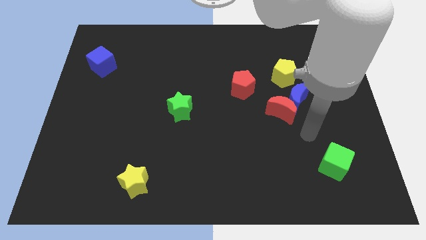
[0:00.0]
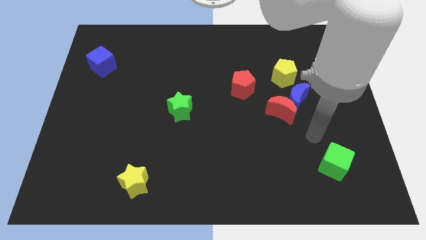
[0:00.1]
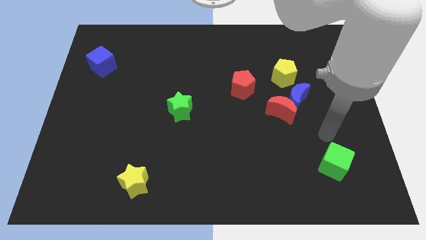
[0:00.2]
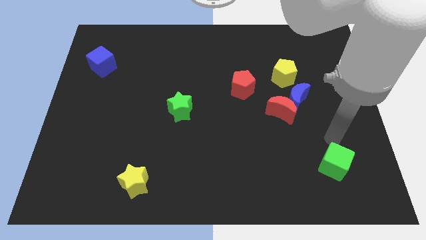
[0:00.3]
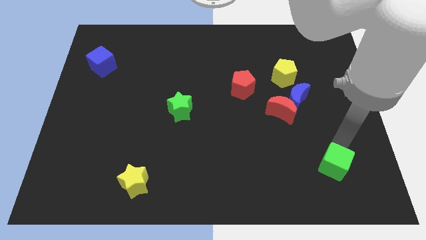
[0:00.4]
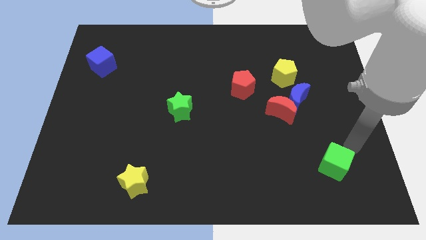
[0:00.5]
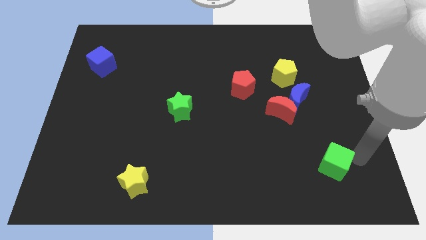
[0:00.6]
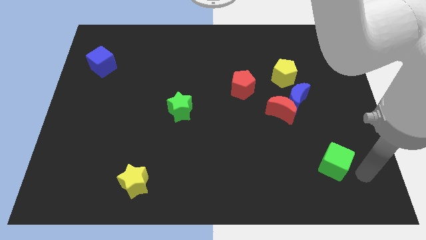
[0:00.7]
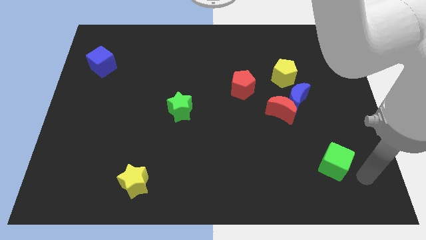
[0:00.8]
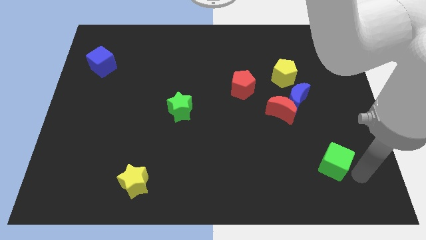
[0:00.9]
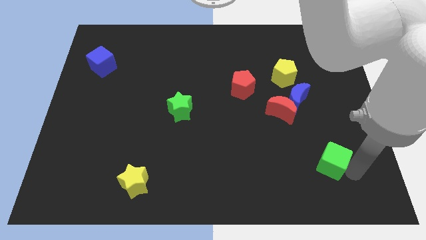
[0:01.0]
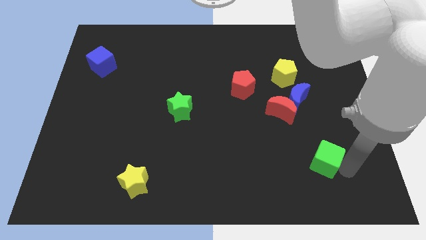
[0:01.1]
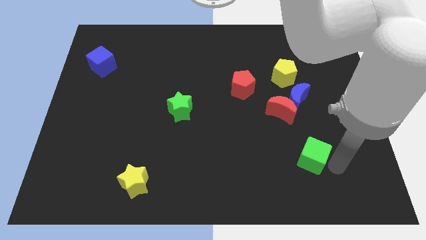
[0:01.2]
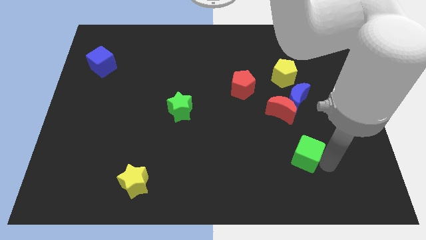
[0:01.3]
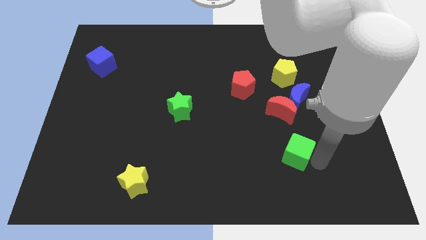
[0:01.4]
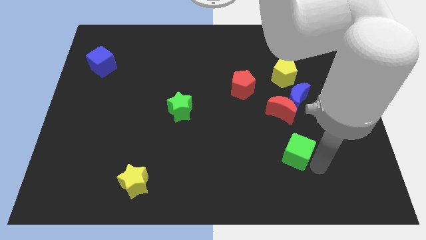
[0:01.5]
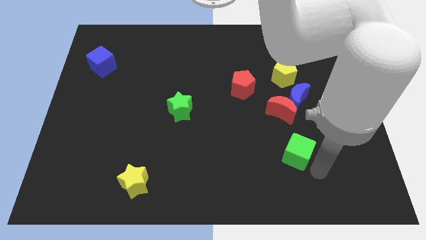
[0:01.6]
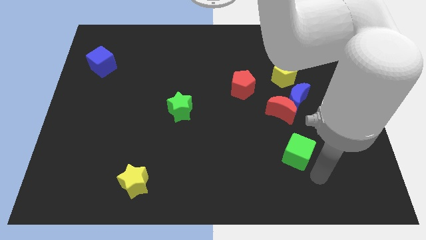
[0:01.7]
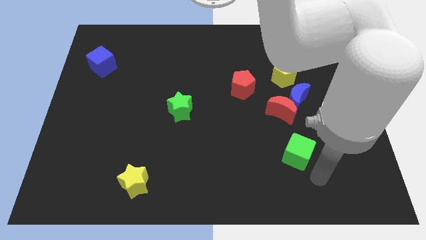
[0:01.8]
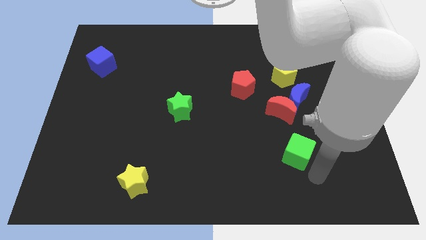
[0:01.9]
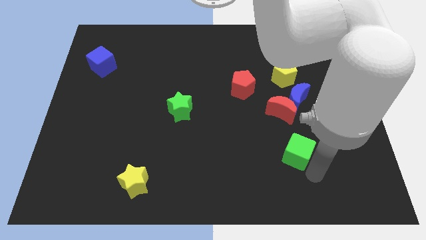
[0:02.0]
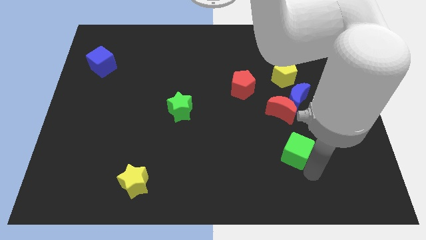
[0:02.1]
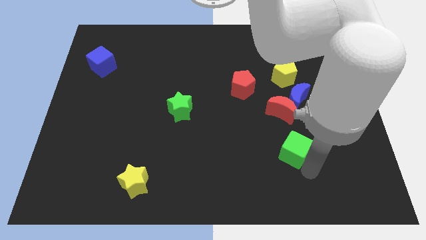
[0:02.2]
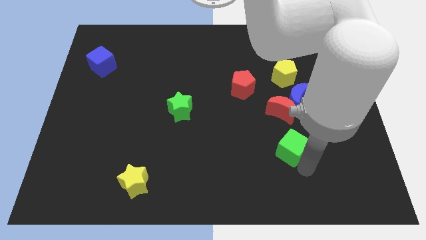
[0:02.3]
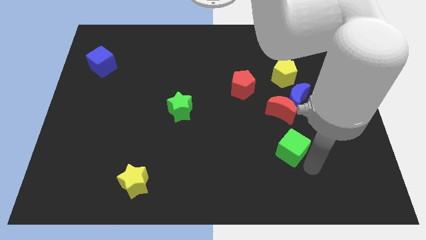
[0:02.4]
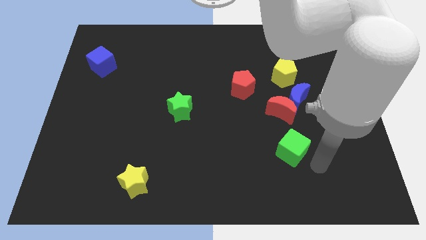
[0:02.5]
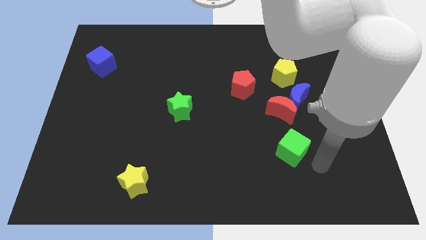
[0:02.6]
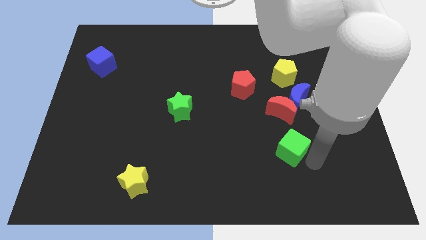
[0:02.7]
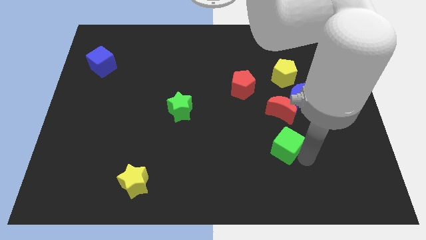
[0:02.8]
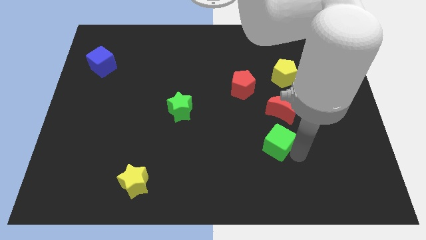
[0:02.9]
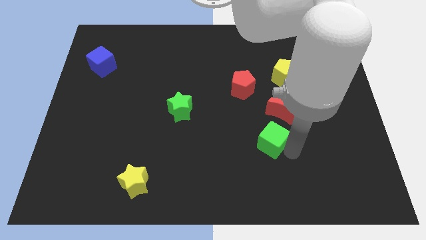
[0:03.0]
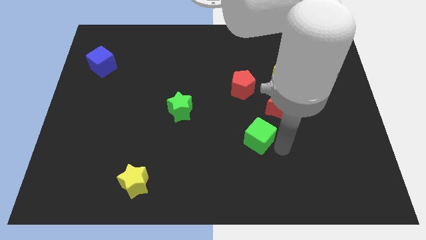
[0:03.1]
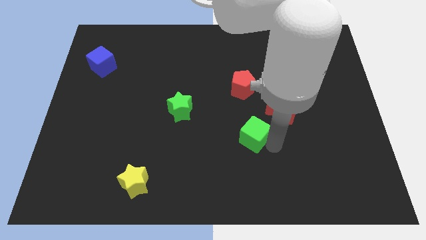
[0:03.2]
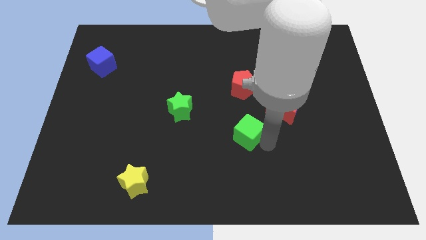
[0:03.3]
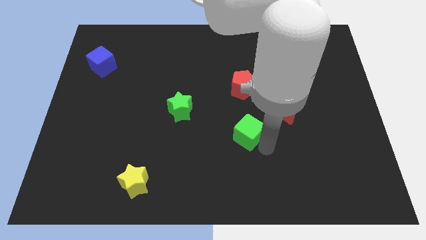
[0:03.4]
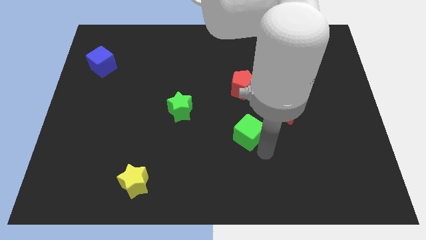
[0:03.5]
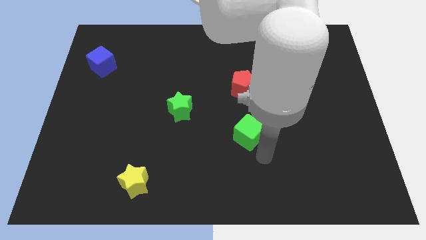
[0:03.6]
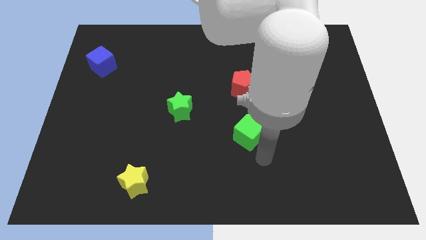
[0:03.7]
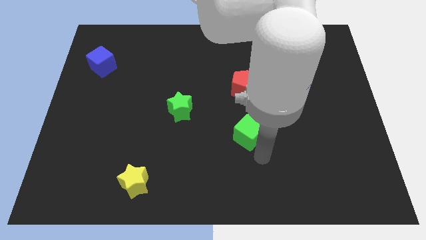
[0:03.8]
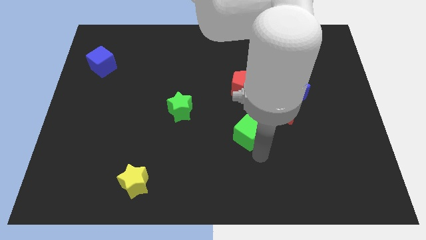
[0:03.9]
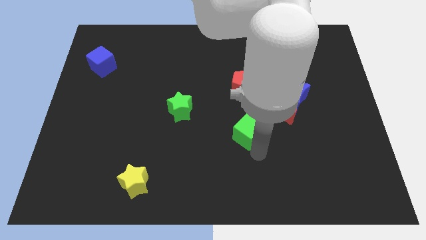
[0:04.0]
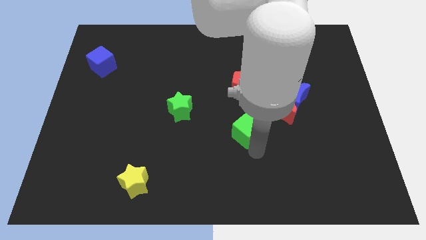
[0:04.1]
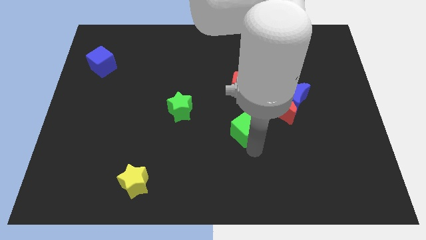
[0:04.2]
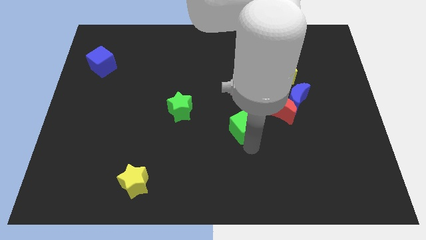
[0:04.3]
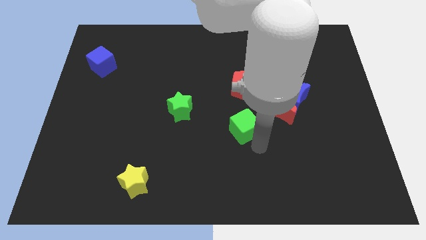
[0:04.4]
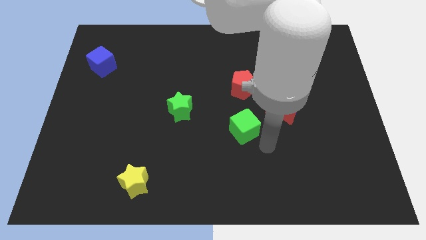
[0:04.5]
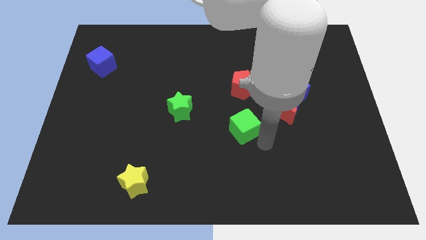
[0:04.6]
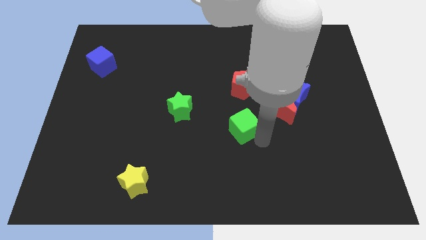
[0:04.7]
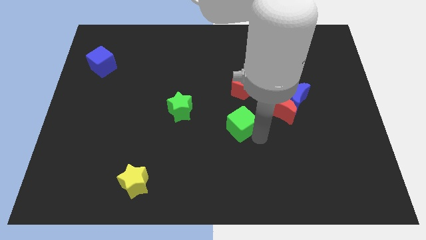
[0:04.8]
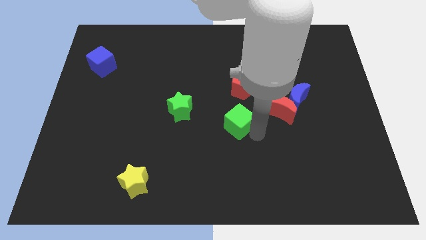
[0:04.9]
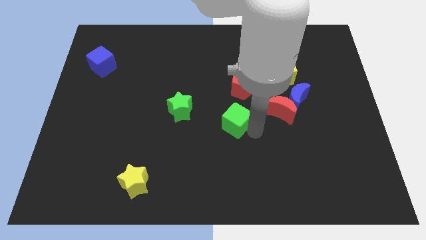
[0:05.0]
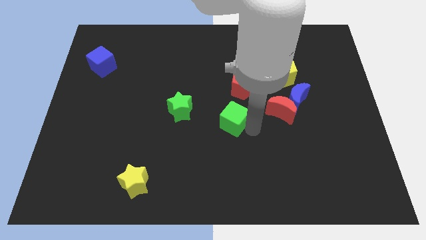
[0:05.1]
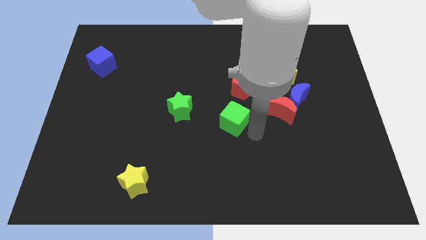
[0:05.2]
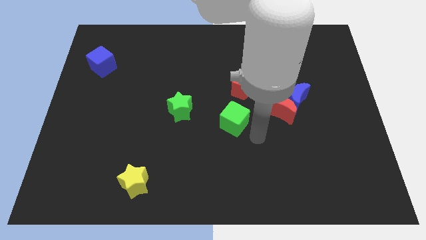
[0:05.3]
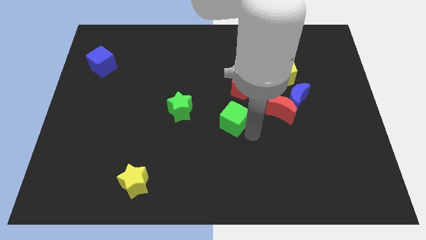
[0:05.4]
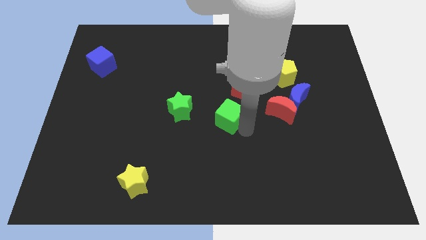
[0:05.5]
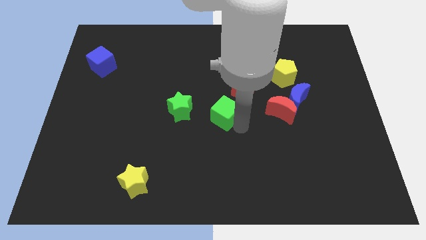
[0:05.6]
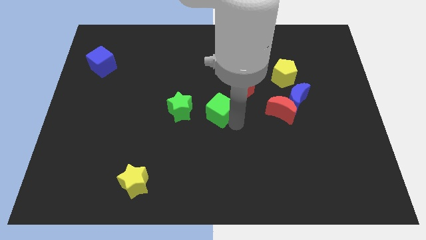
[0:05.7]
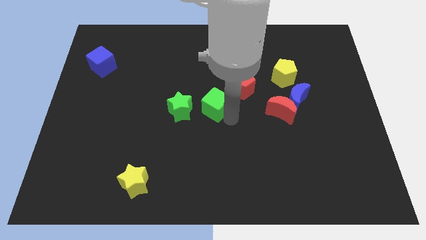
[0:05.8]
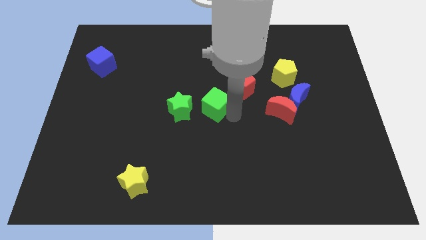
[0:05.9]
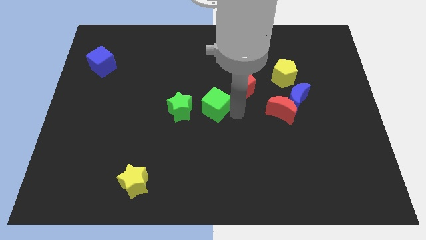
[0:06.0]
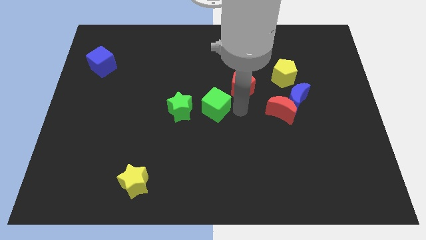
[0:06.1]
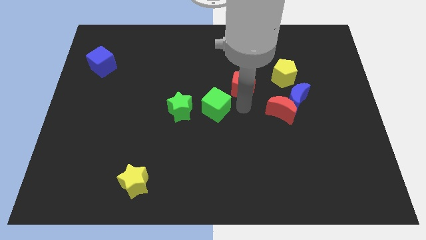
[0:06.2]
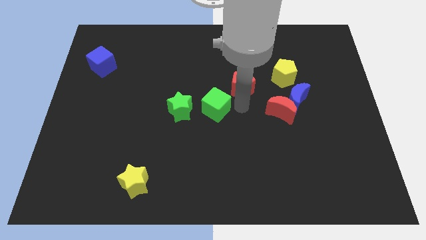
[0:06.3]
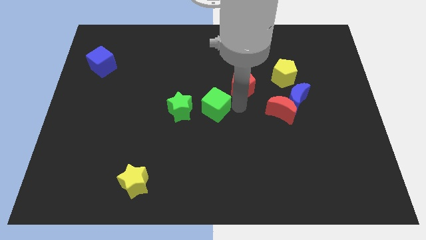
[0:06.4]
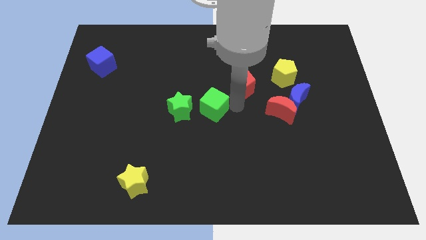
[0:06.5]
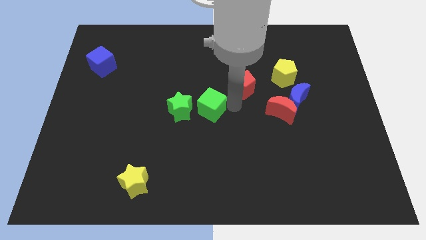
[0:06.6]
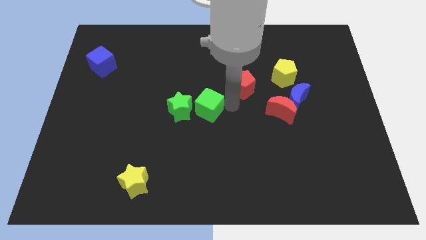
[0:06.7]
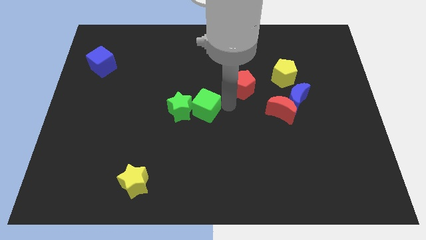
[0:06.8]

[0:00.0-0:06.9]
put the green cube next to the green star

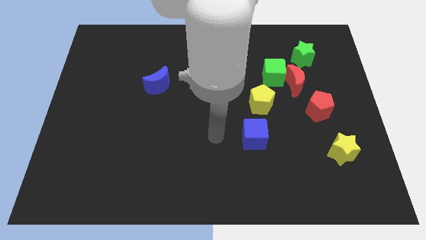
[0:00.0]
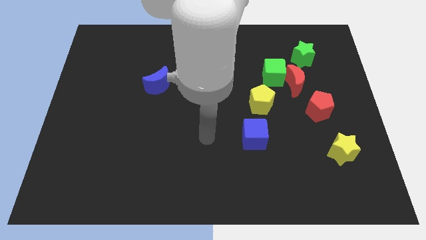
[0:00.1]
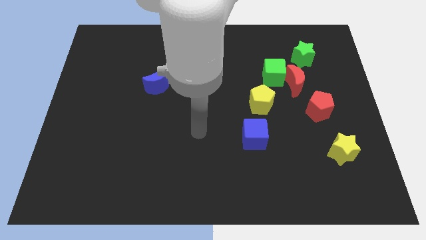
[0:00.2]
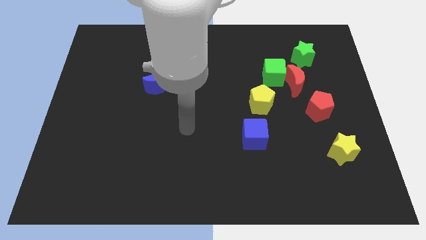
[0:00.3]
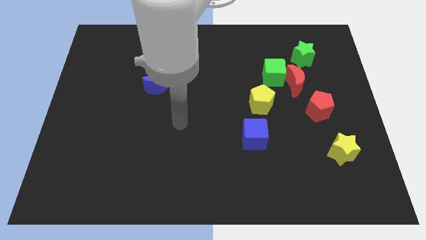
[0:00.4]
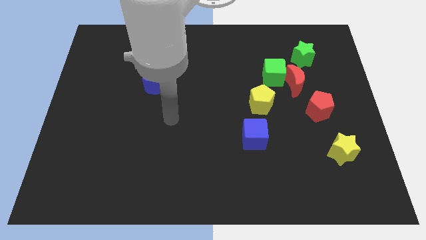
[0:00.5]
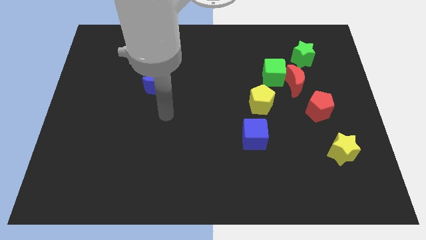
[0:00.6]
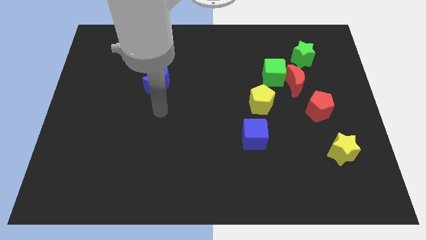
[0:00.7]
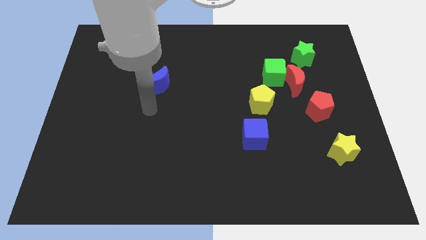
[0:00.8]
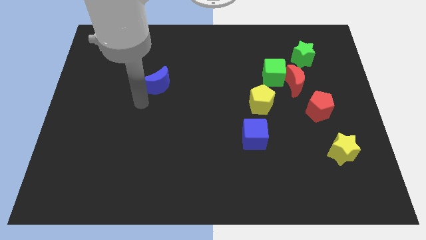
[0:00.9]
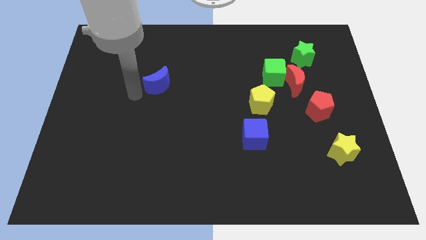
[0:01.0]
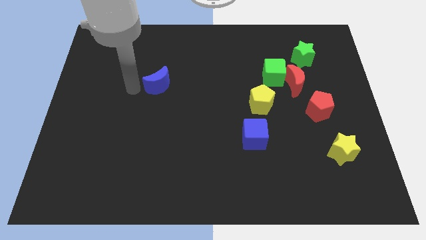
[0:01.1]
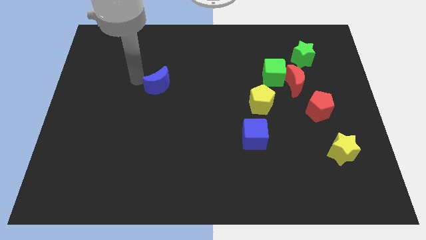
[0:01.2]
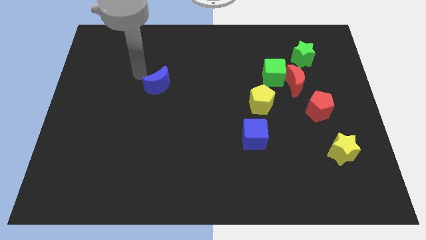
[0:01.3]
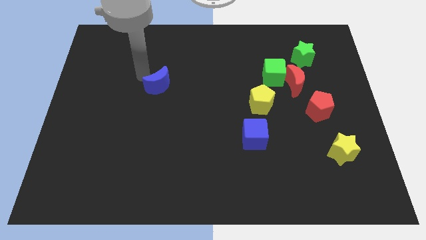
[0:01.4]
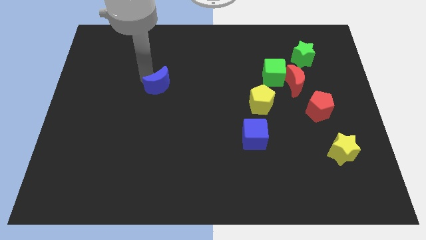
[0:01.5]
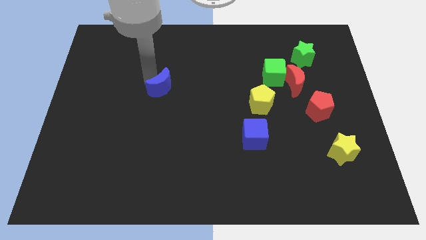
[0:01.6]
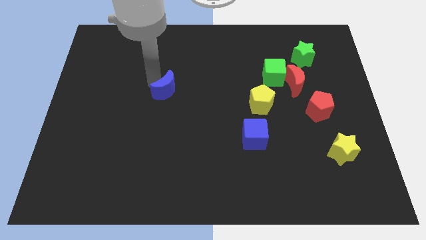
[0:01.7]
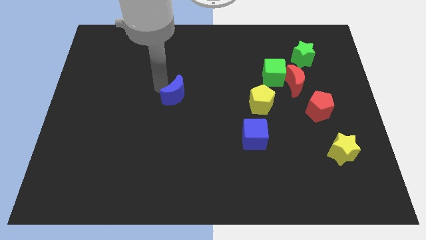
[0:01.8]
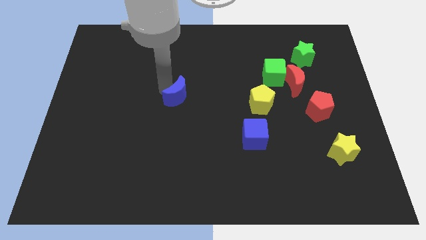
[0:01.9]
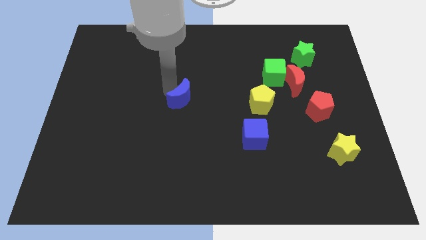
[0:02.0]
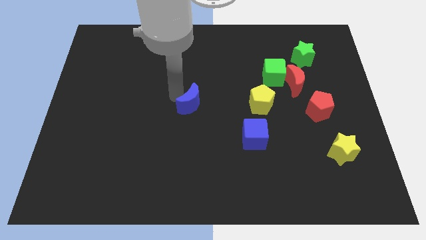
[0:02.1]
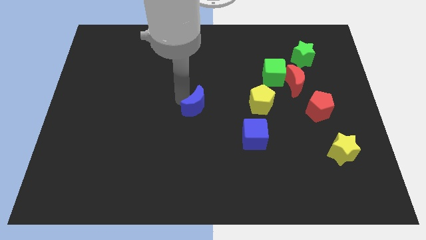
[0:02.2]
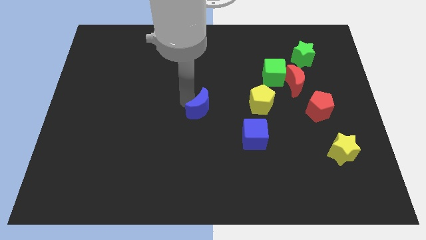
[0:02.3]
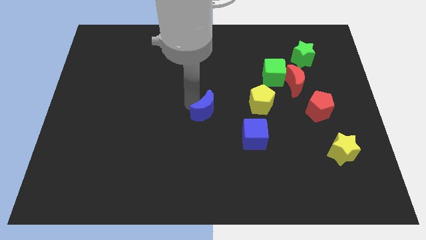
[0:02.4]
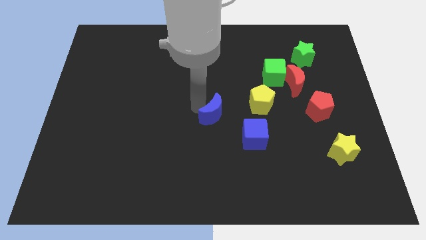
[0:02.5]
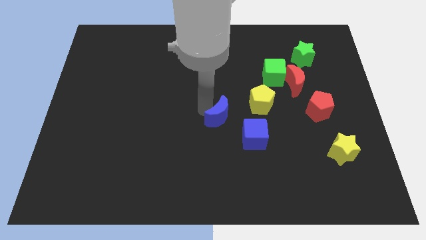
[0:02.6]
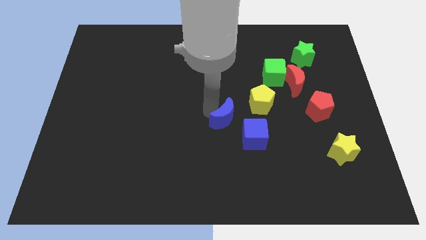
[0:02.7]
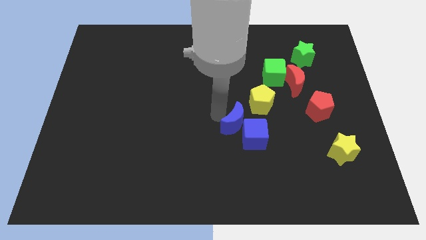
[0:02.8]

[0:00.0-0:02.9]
slide the blue moon towards the blue cube
